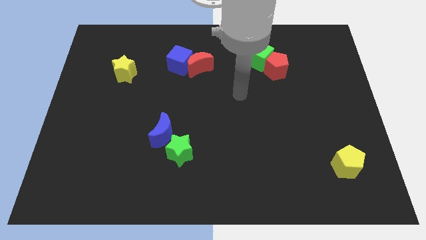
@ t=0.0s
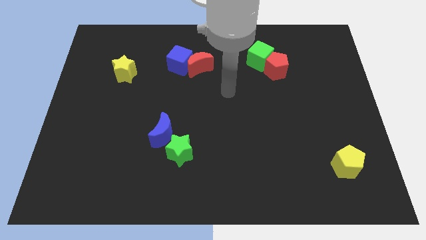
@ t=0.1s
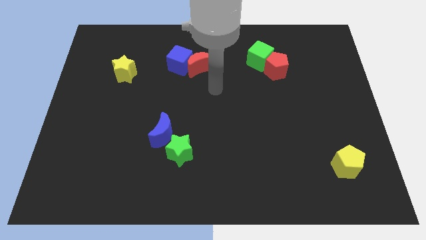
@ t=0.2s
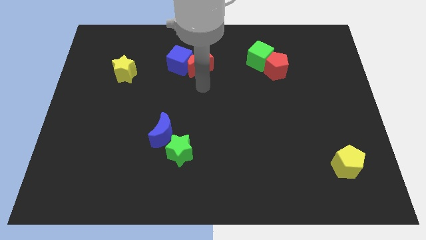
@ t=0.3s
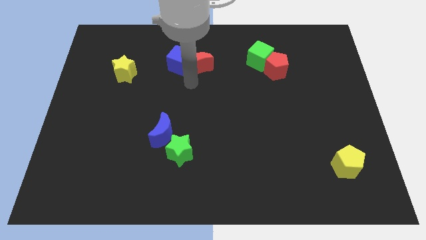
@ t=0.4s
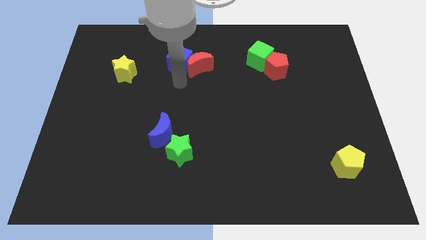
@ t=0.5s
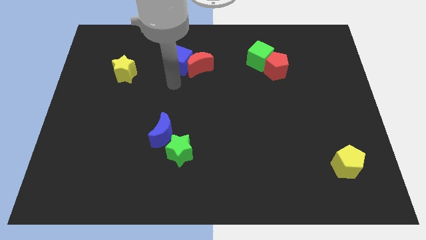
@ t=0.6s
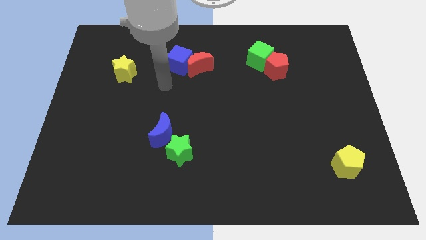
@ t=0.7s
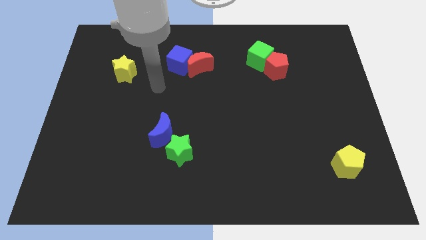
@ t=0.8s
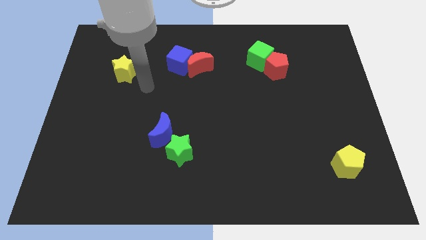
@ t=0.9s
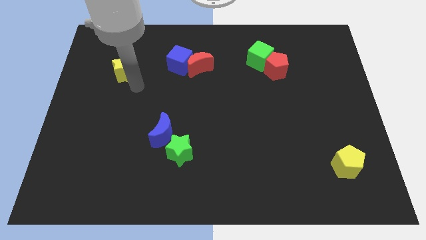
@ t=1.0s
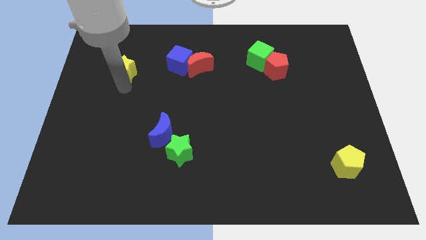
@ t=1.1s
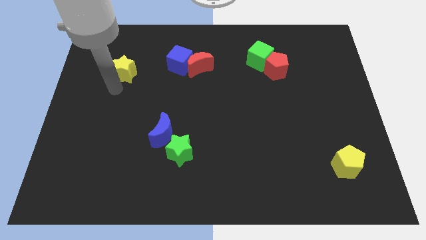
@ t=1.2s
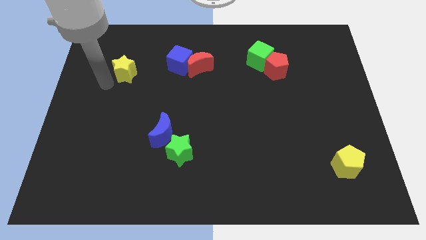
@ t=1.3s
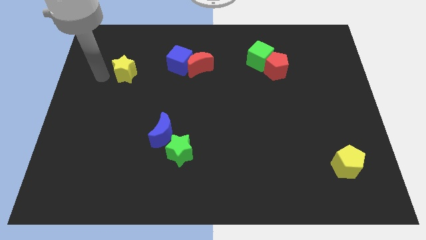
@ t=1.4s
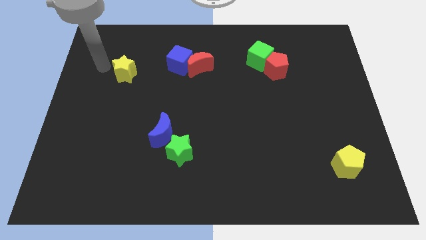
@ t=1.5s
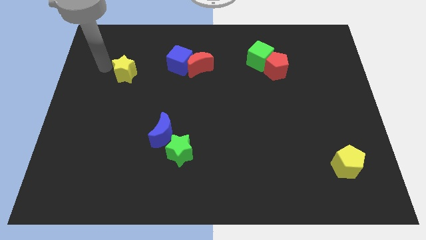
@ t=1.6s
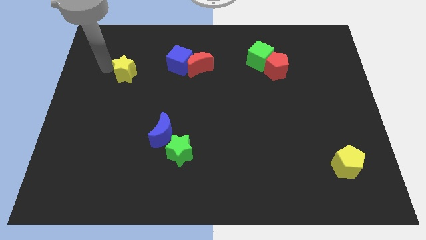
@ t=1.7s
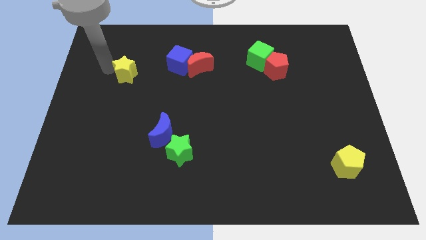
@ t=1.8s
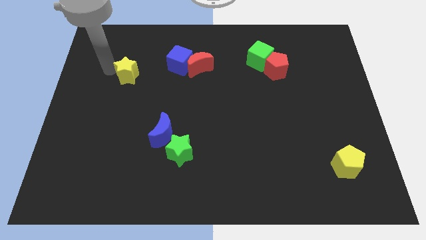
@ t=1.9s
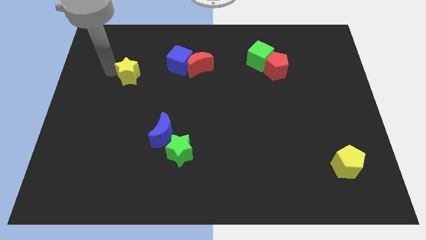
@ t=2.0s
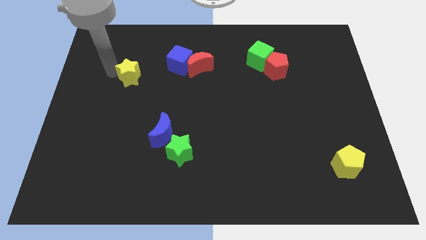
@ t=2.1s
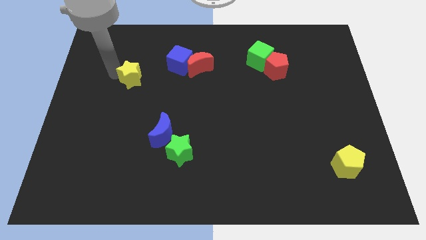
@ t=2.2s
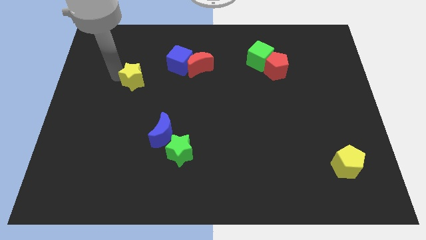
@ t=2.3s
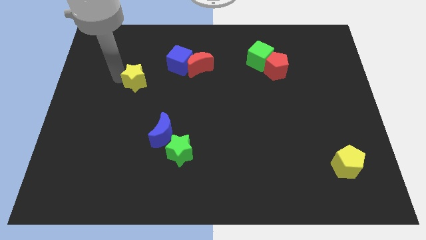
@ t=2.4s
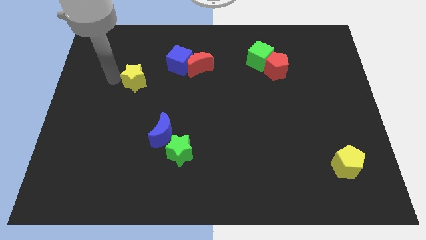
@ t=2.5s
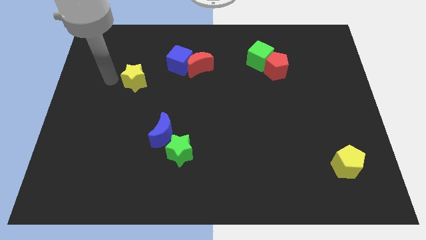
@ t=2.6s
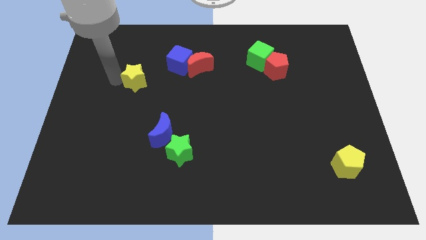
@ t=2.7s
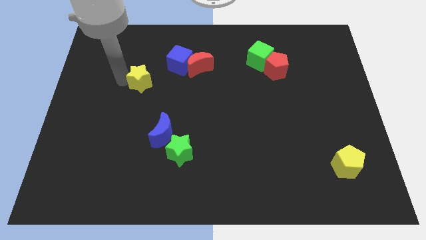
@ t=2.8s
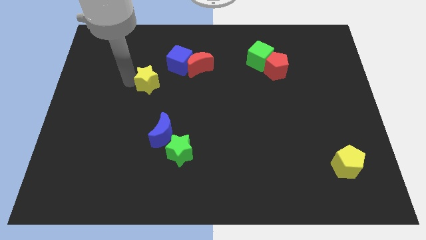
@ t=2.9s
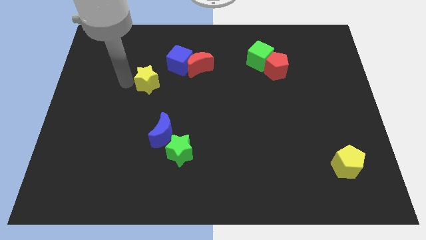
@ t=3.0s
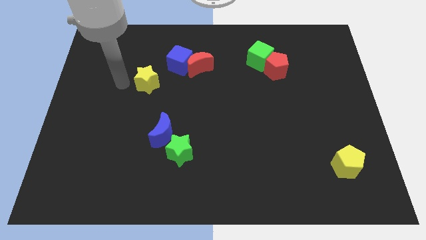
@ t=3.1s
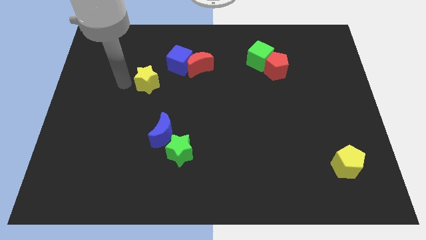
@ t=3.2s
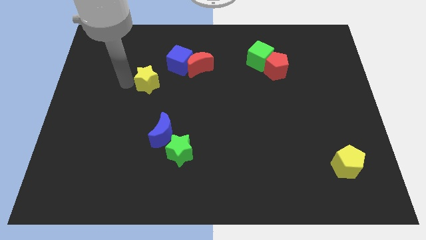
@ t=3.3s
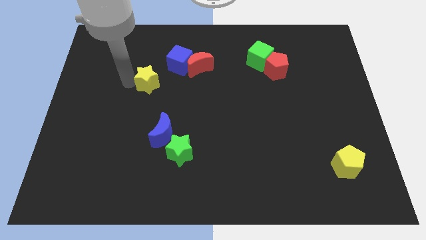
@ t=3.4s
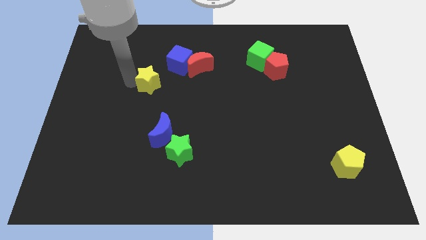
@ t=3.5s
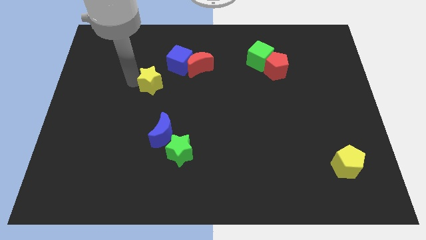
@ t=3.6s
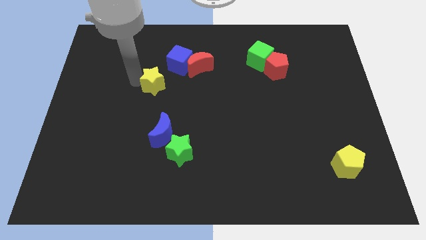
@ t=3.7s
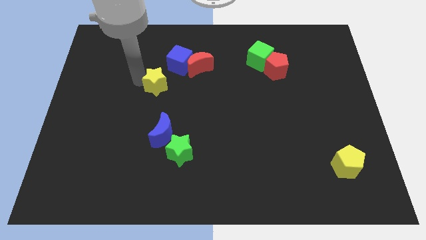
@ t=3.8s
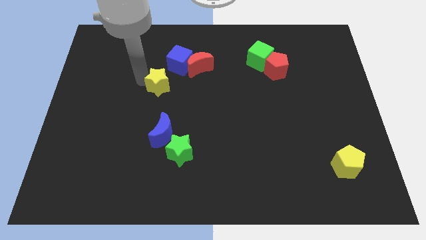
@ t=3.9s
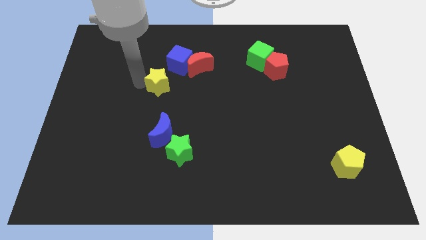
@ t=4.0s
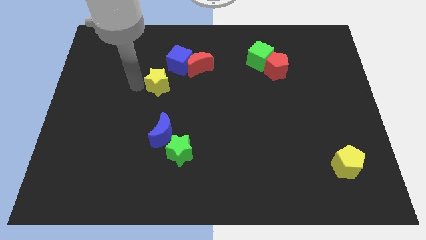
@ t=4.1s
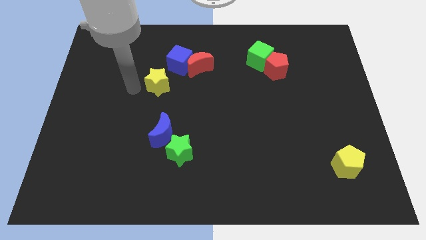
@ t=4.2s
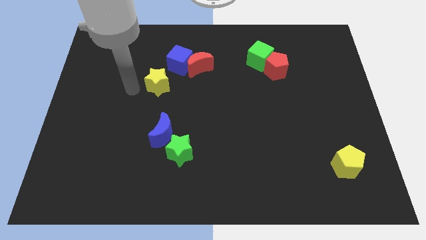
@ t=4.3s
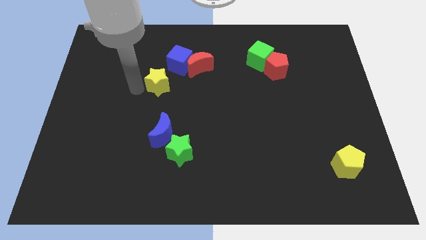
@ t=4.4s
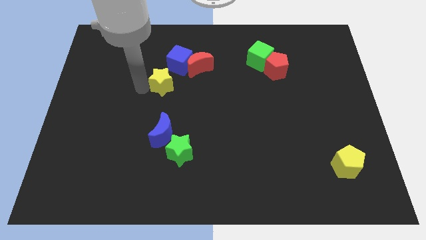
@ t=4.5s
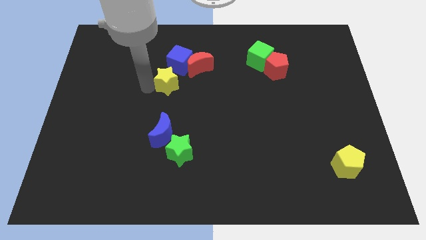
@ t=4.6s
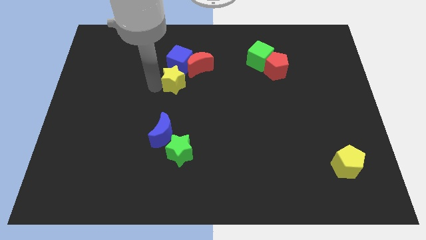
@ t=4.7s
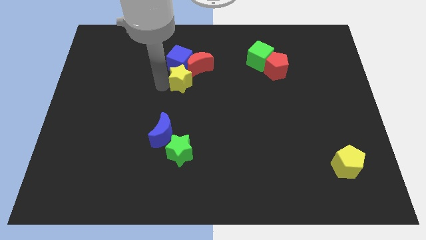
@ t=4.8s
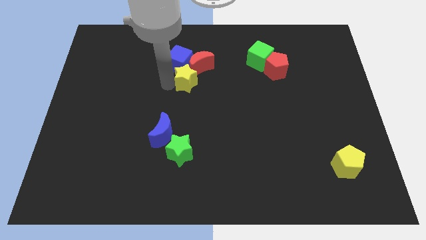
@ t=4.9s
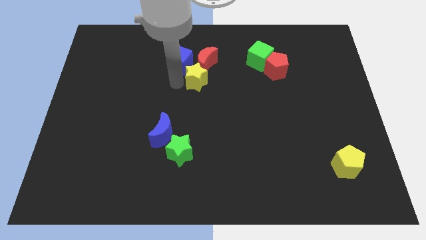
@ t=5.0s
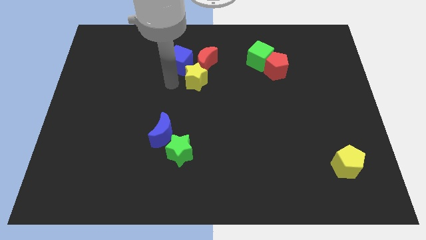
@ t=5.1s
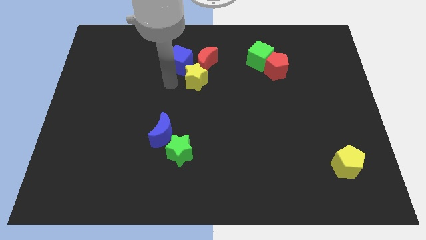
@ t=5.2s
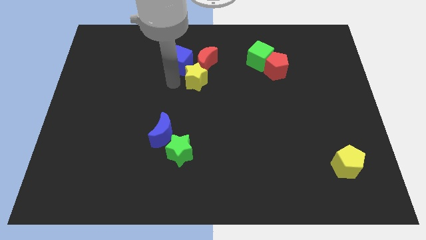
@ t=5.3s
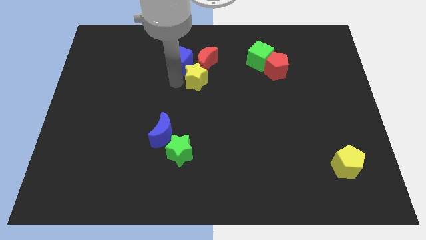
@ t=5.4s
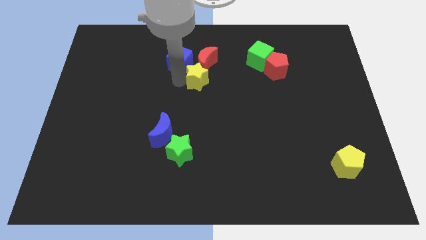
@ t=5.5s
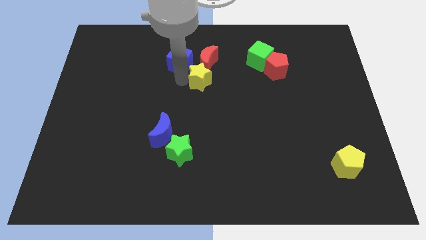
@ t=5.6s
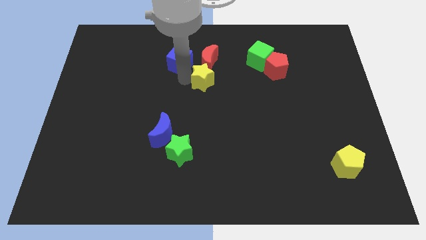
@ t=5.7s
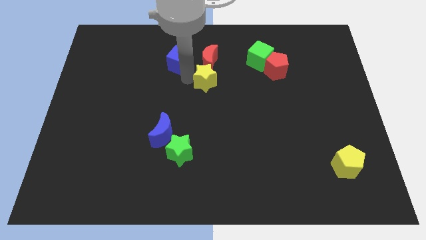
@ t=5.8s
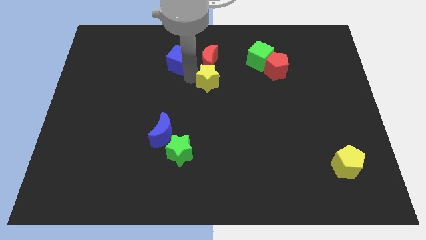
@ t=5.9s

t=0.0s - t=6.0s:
push the yellow star to the bottom right of the red moon

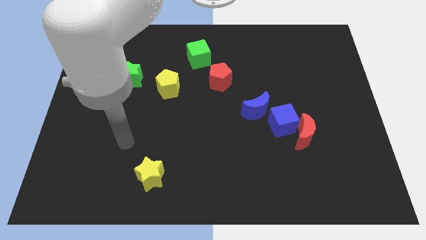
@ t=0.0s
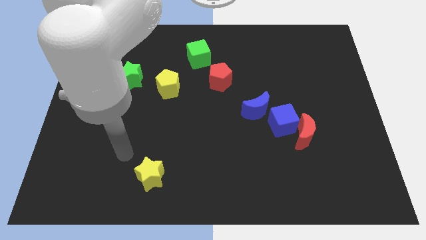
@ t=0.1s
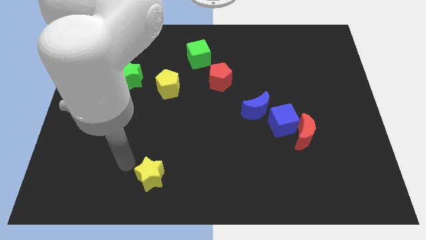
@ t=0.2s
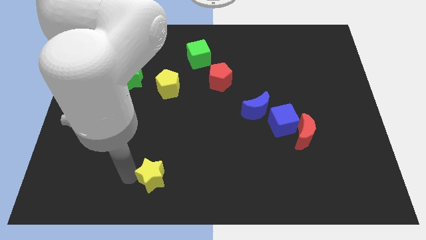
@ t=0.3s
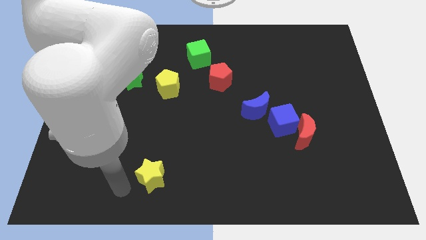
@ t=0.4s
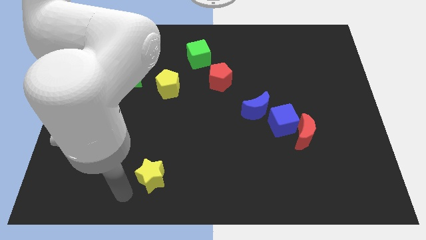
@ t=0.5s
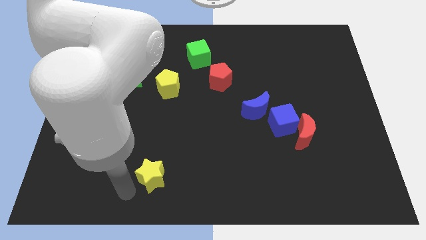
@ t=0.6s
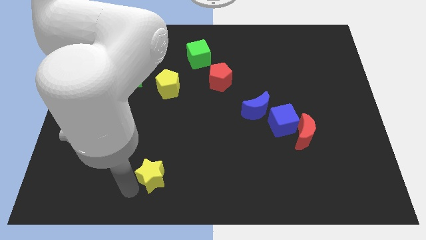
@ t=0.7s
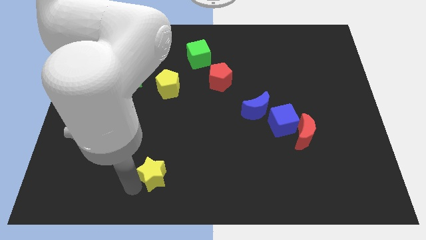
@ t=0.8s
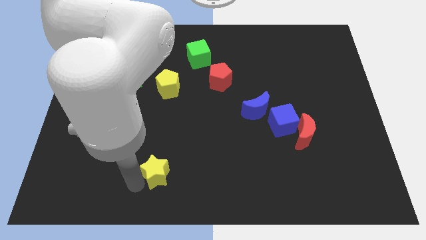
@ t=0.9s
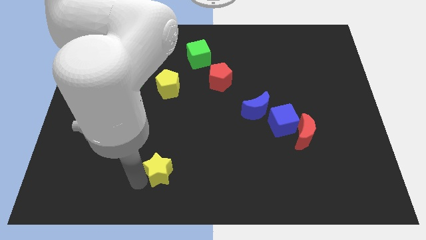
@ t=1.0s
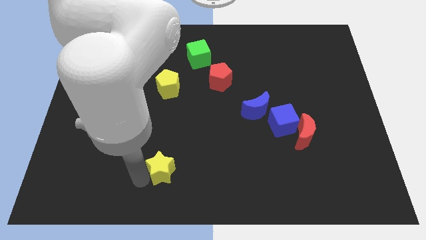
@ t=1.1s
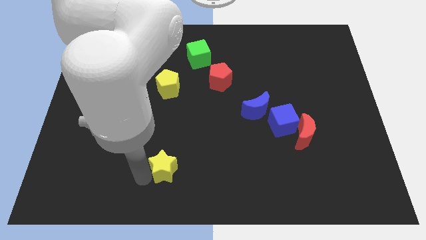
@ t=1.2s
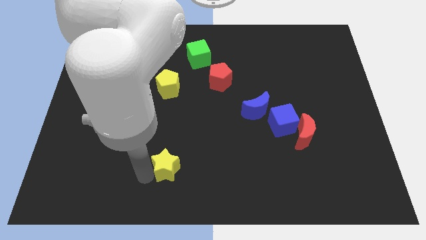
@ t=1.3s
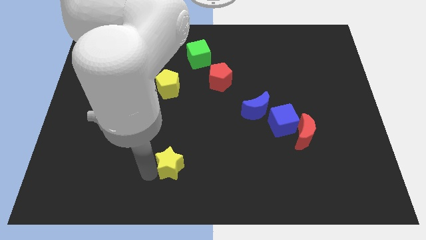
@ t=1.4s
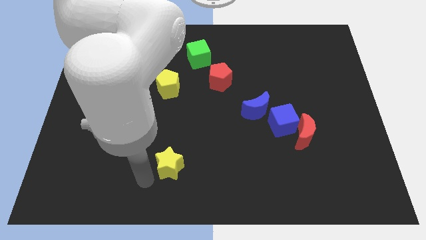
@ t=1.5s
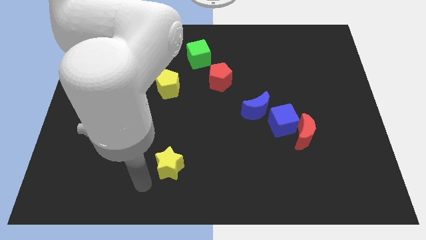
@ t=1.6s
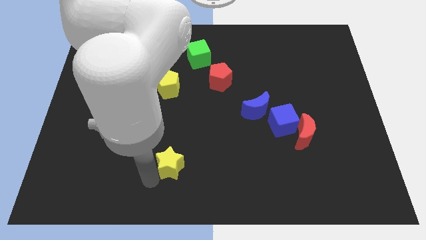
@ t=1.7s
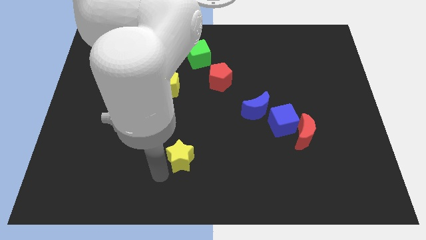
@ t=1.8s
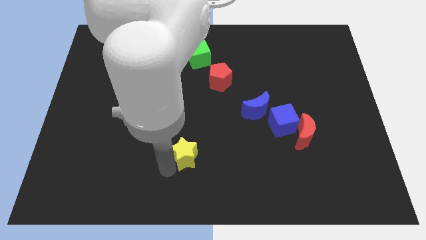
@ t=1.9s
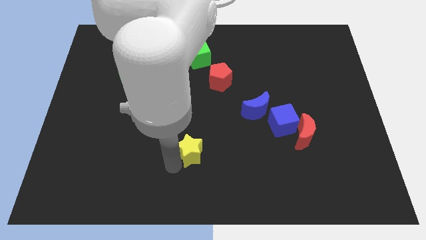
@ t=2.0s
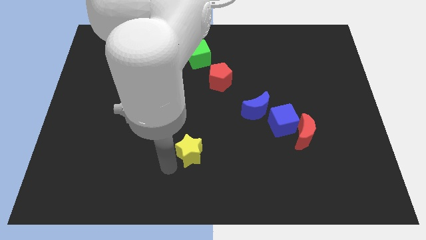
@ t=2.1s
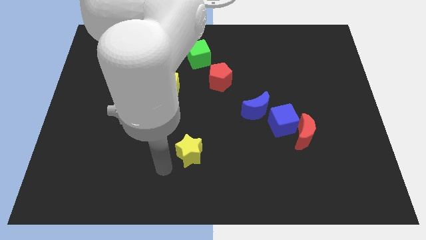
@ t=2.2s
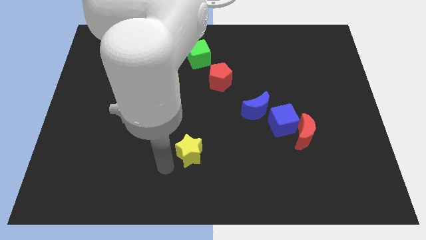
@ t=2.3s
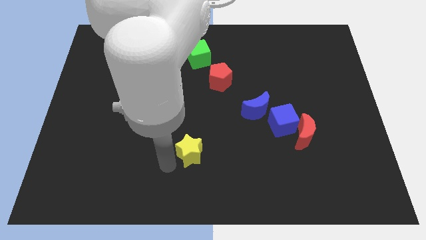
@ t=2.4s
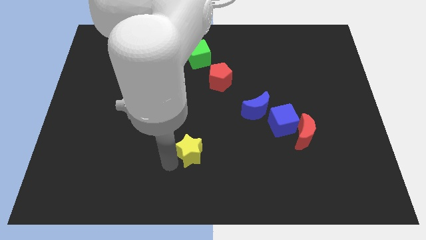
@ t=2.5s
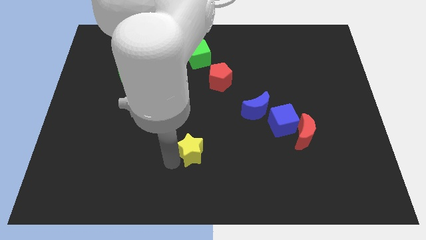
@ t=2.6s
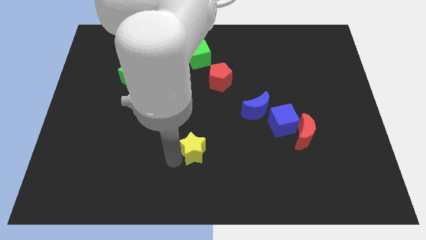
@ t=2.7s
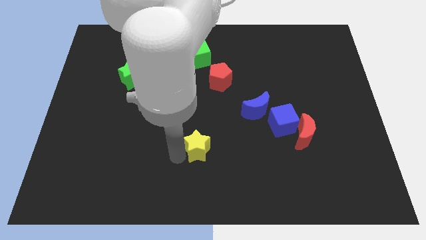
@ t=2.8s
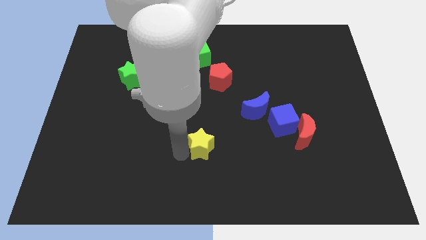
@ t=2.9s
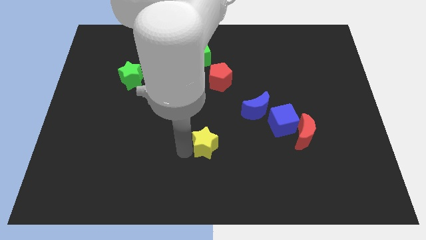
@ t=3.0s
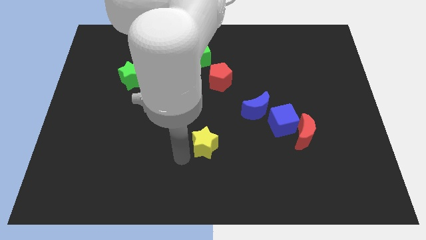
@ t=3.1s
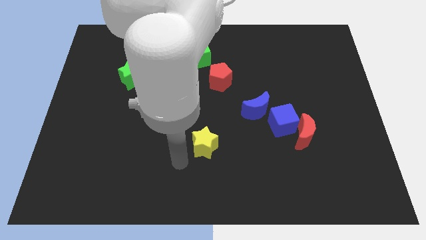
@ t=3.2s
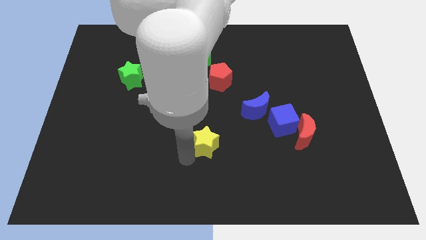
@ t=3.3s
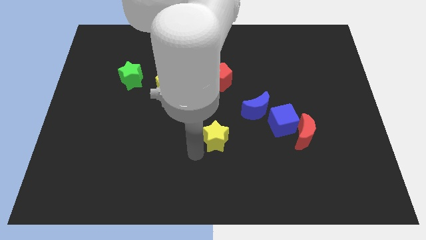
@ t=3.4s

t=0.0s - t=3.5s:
slide the yellow star to the bottom left side of the blue moon
